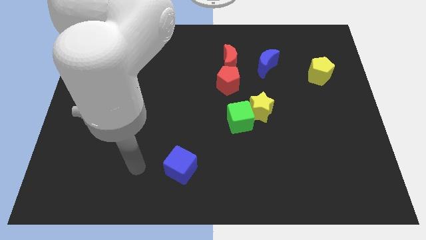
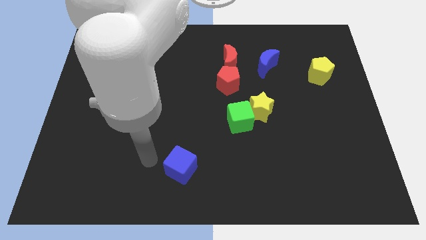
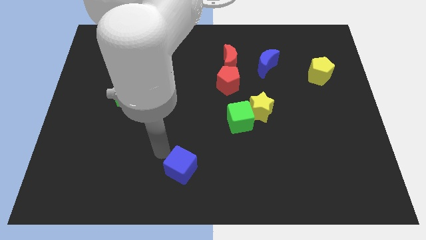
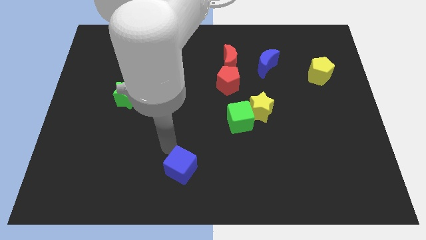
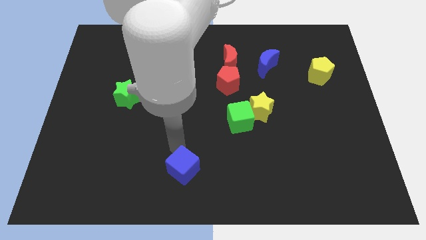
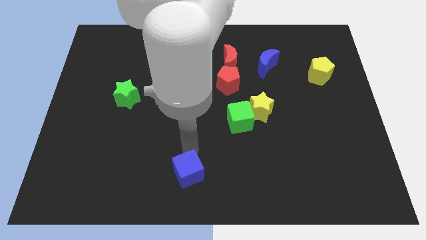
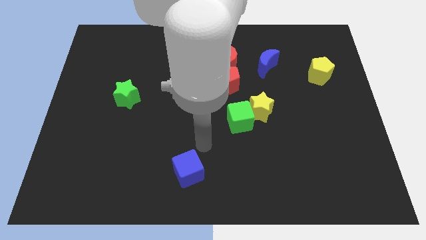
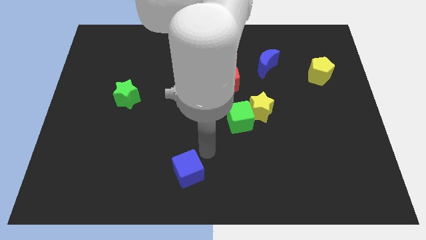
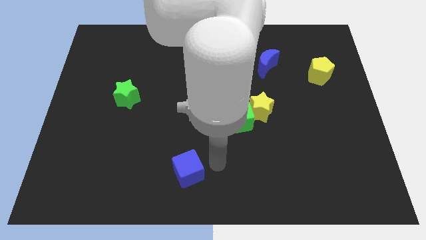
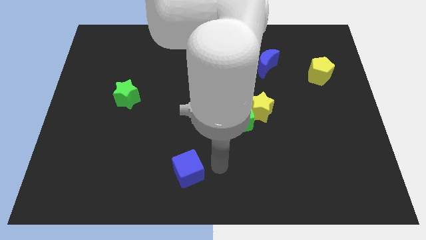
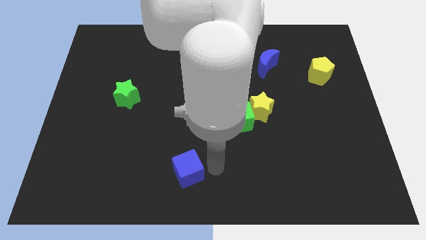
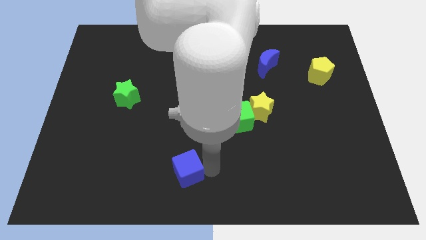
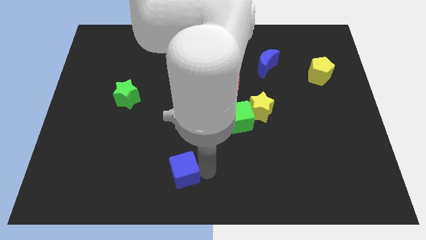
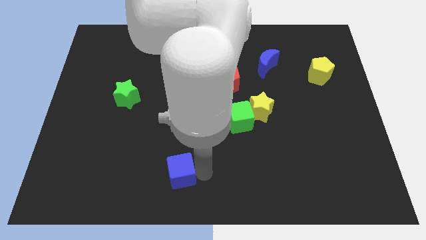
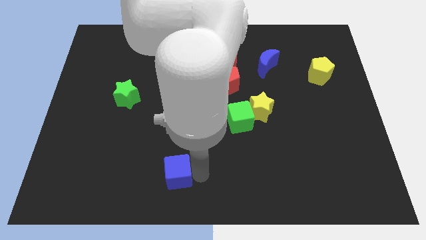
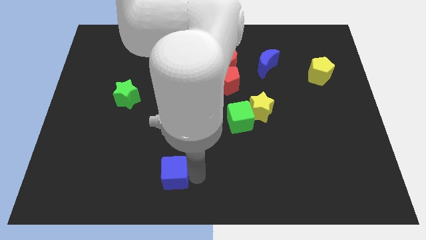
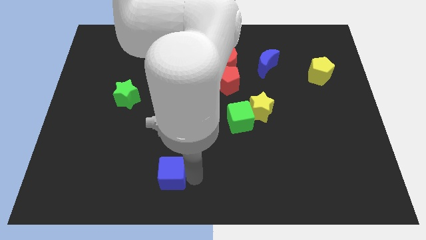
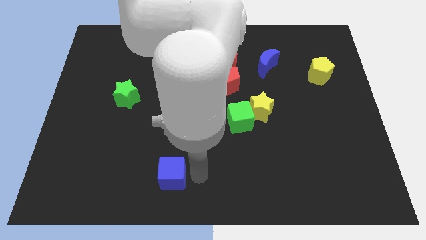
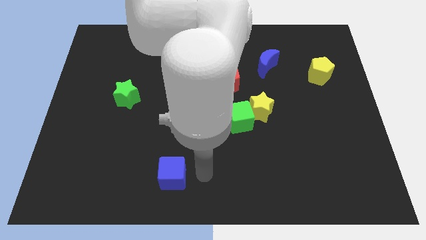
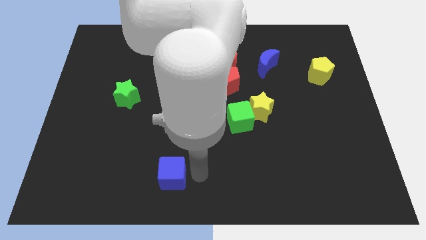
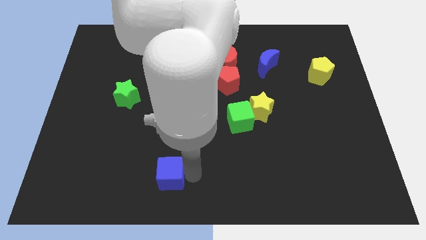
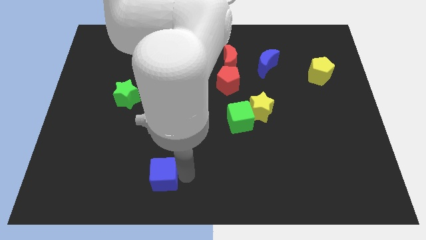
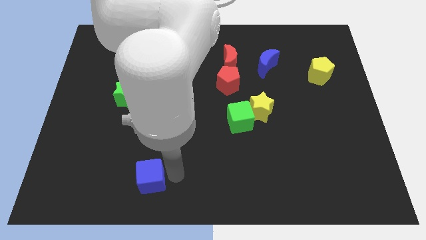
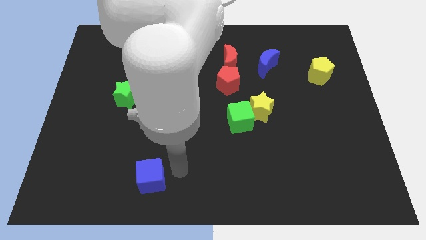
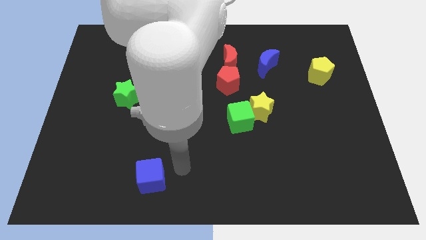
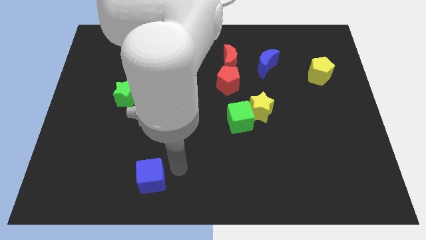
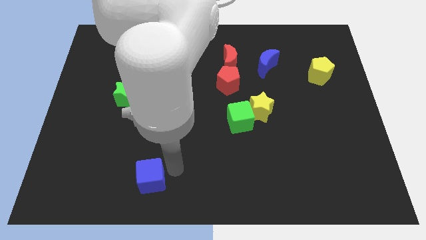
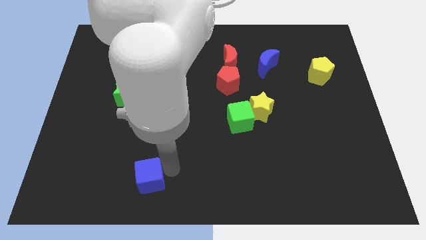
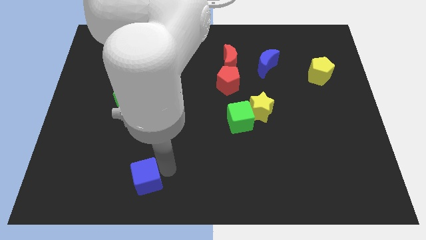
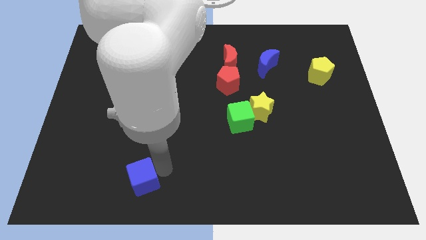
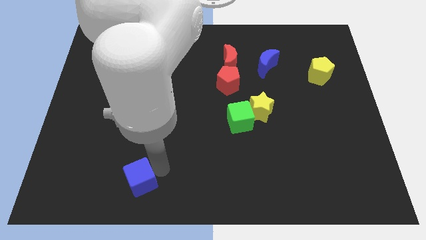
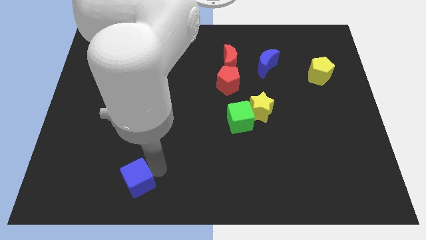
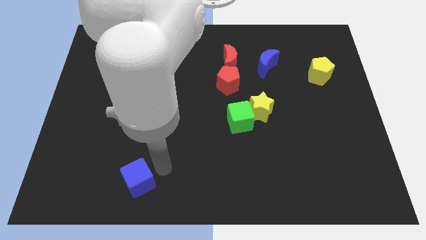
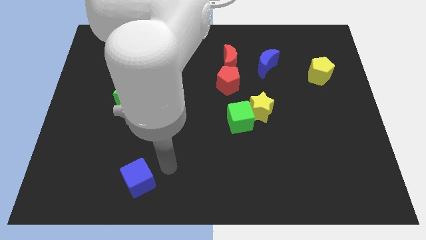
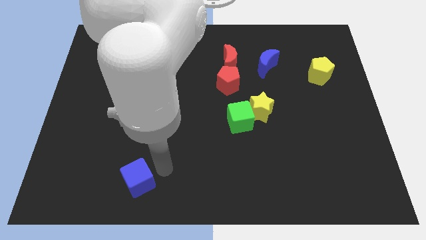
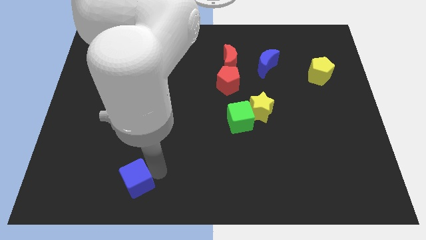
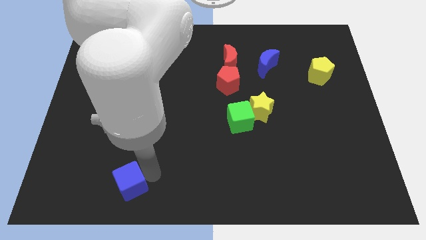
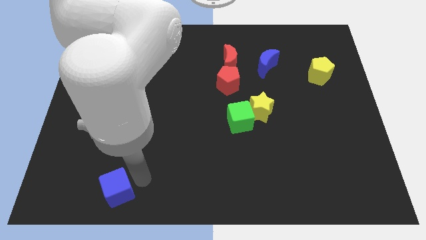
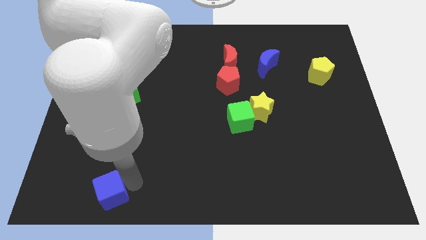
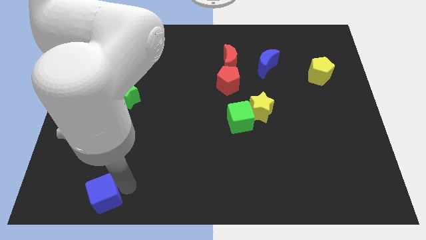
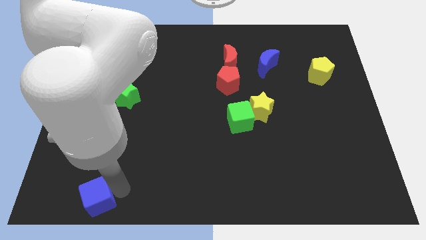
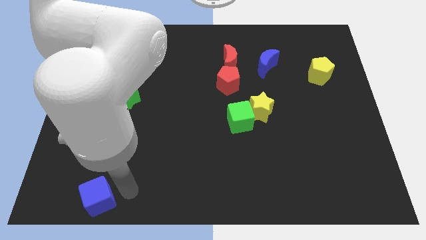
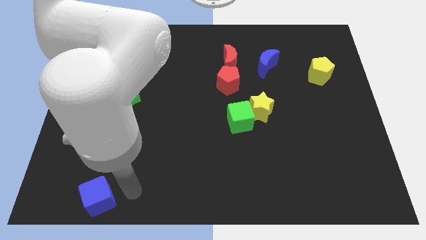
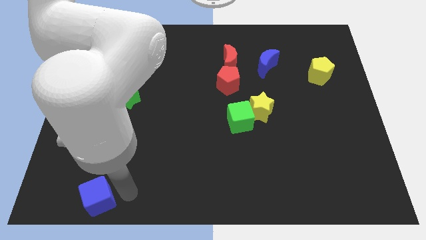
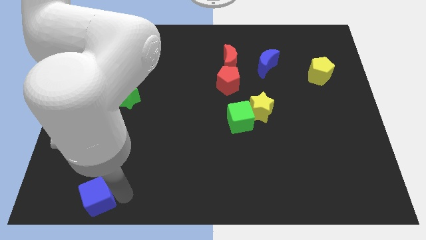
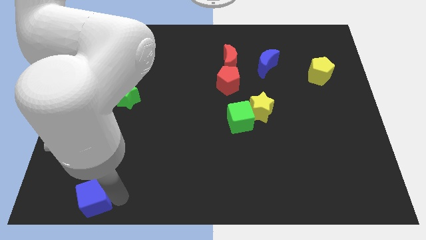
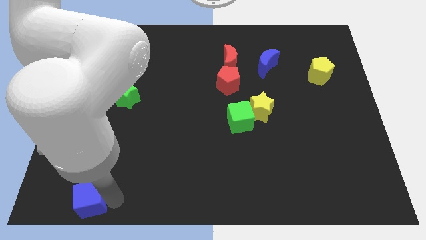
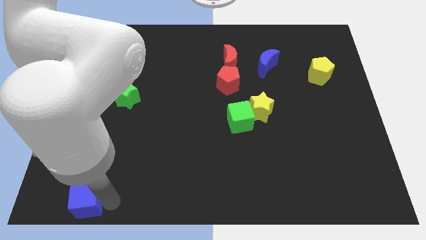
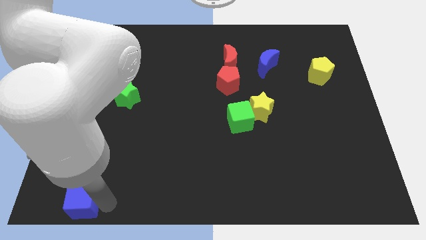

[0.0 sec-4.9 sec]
move the blue cube to the bottom left of the board

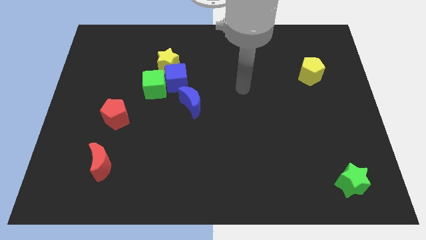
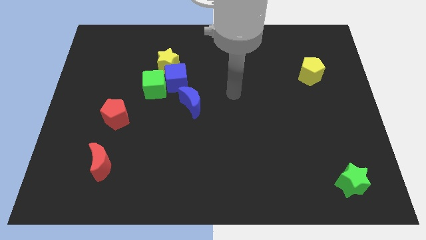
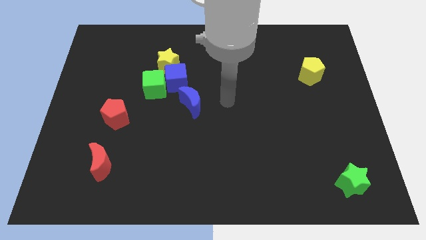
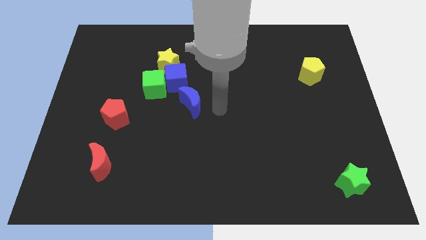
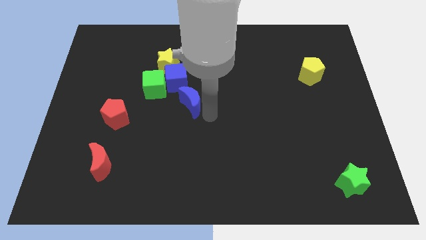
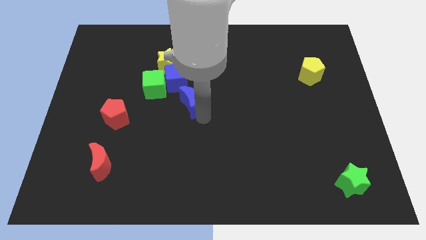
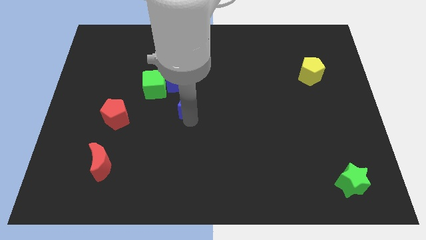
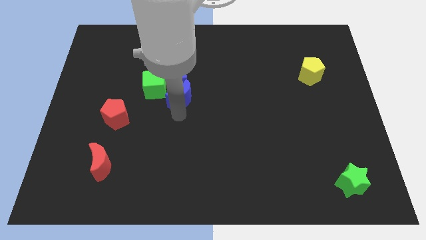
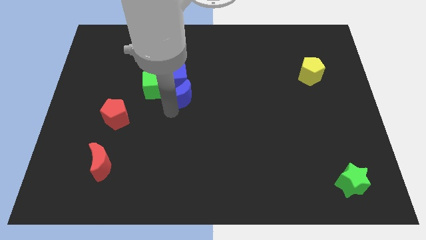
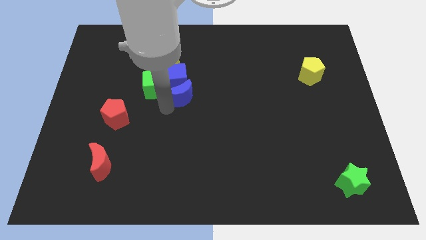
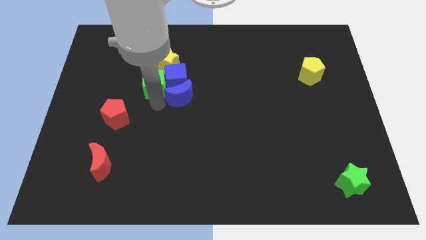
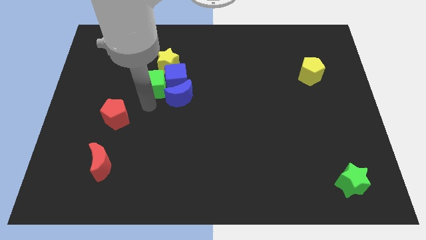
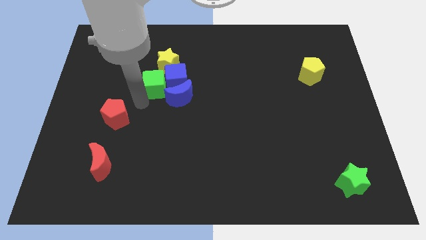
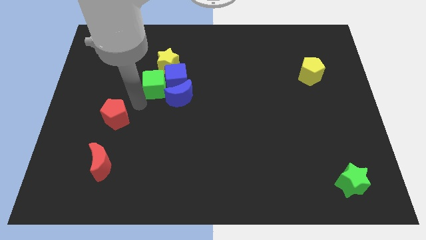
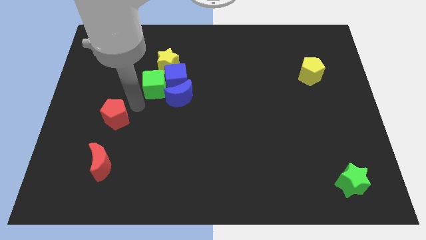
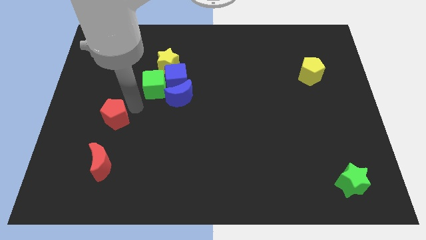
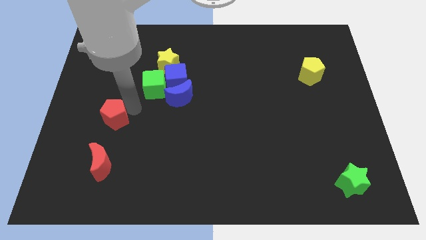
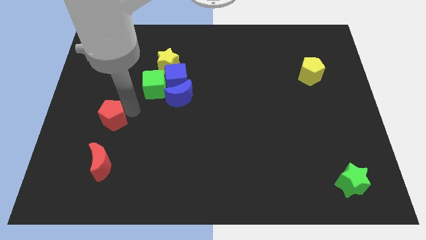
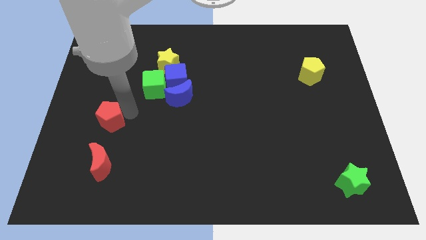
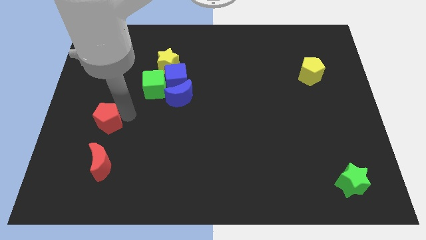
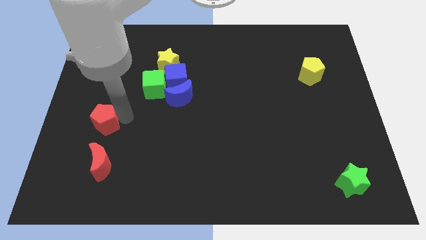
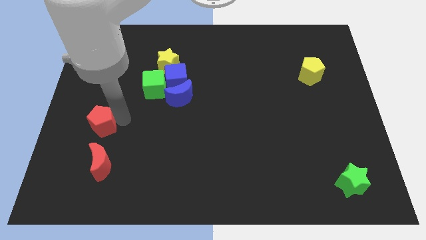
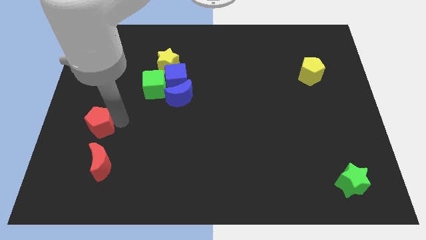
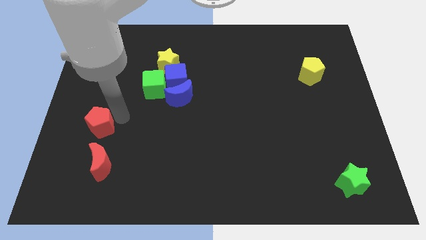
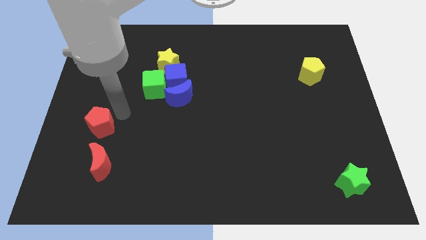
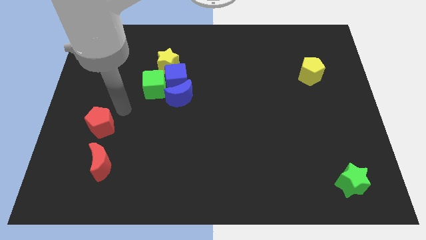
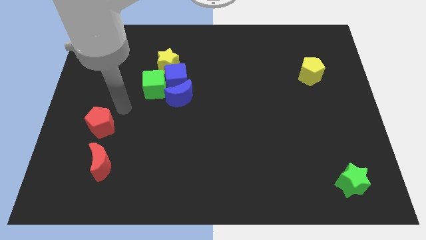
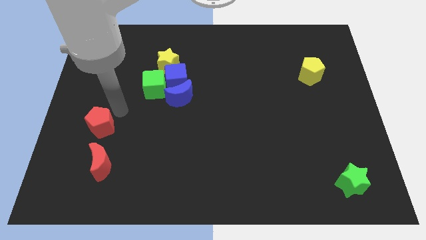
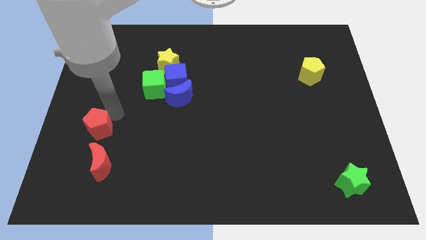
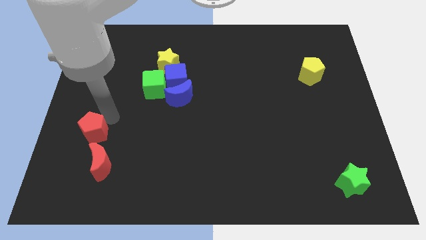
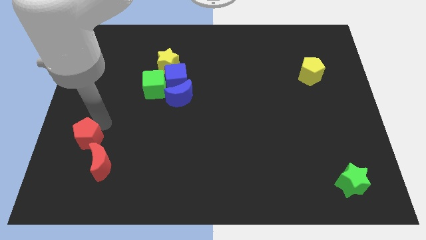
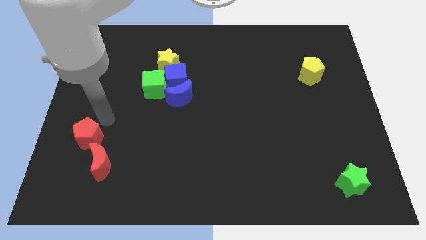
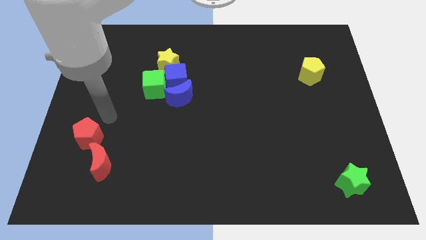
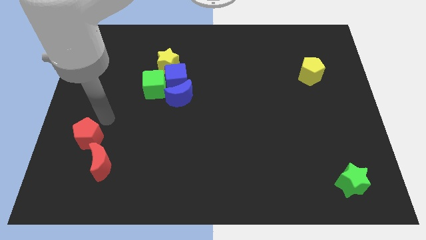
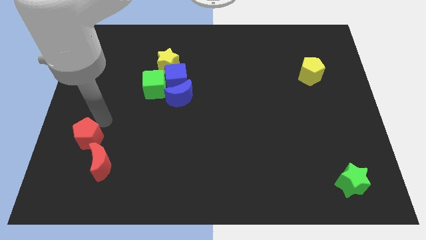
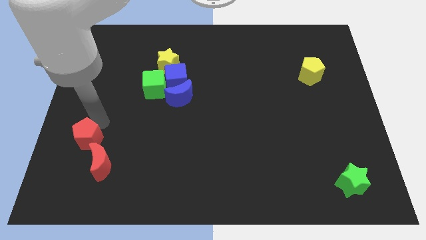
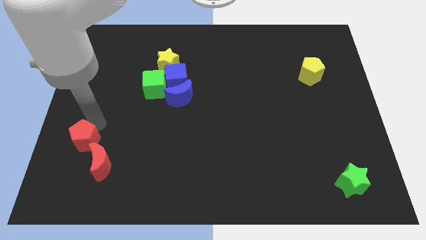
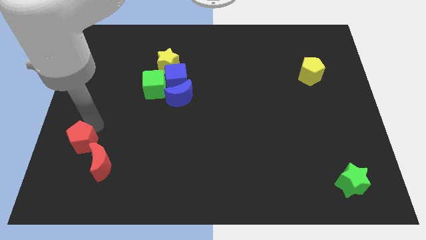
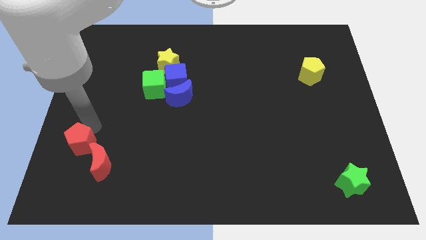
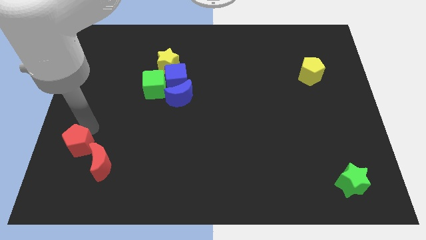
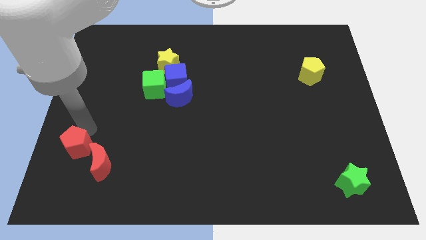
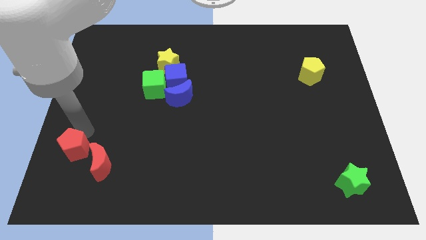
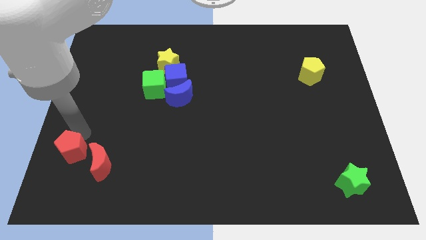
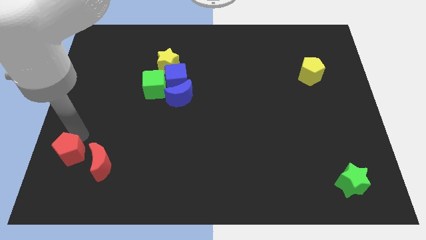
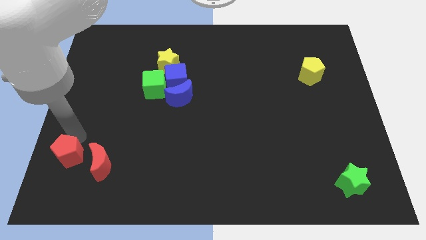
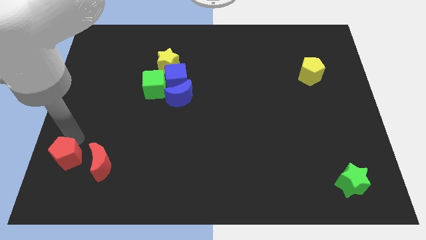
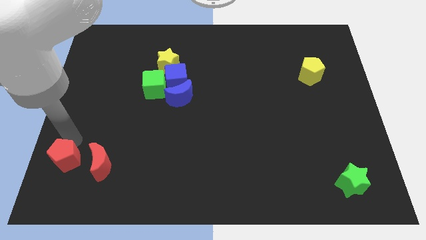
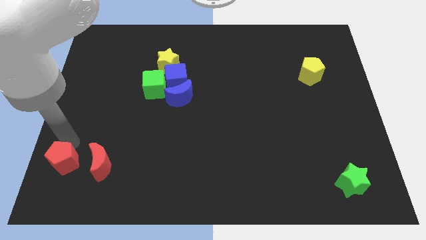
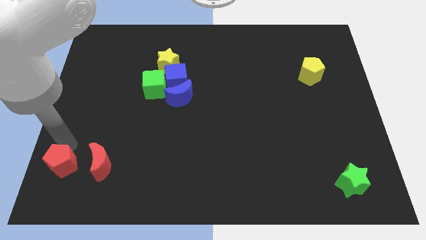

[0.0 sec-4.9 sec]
slide the red pentagon to the bottom left of the board
